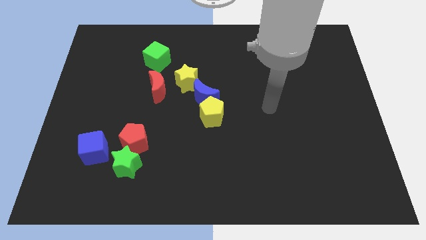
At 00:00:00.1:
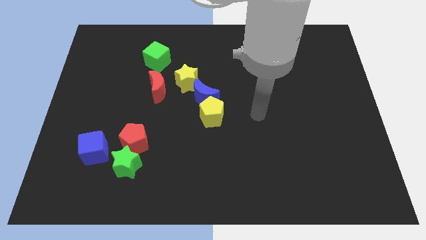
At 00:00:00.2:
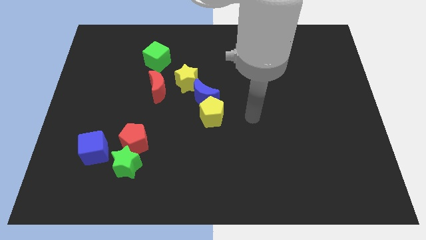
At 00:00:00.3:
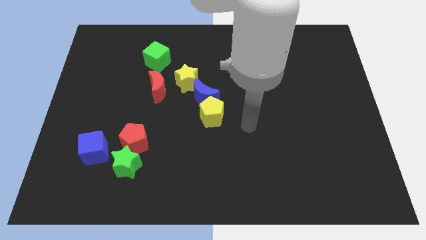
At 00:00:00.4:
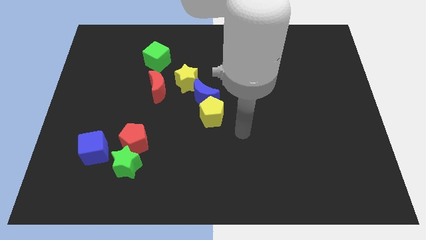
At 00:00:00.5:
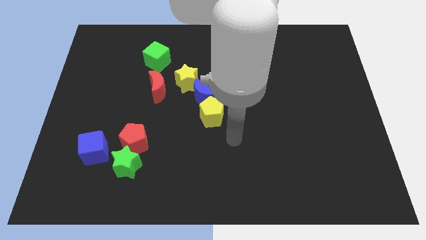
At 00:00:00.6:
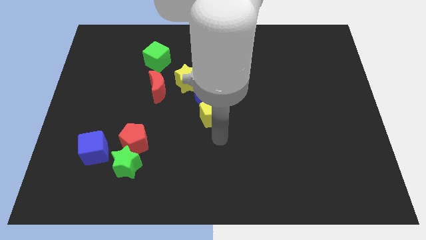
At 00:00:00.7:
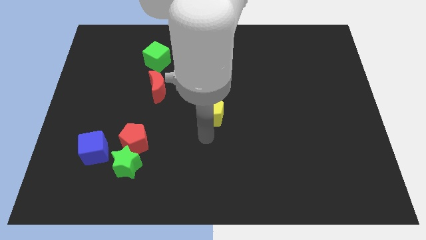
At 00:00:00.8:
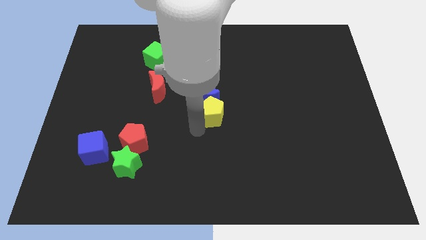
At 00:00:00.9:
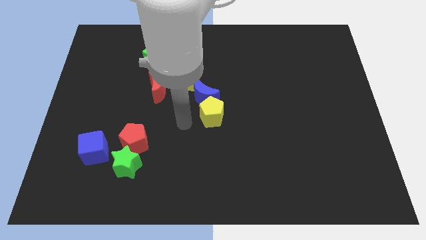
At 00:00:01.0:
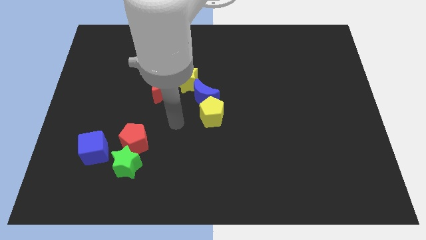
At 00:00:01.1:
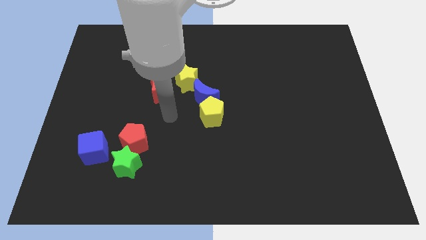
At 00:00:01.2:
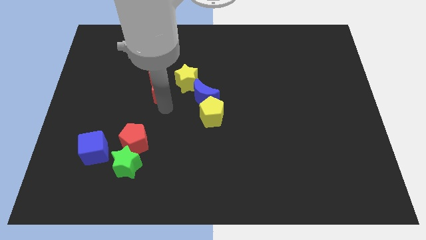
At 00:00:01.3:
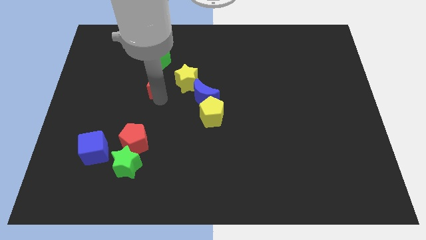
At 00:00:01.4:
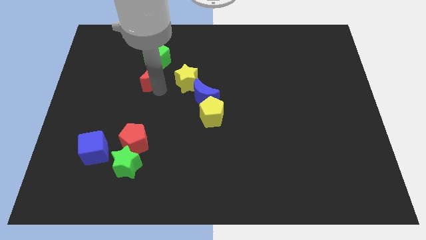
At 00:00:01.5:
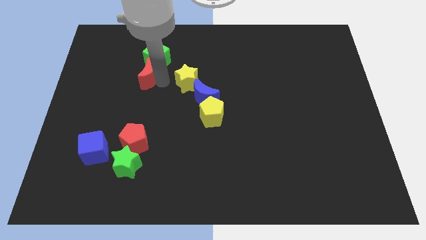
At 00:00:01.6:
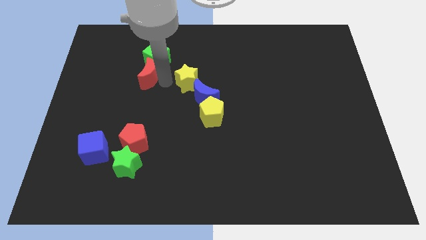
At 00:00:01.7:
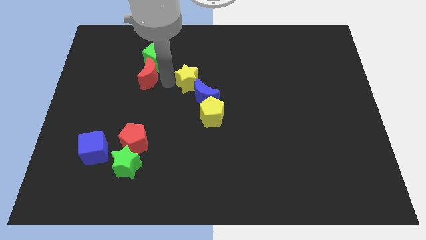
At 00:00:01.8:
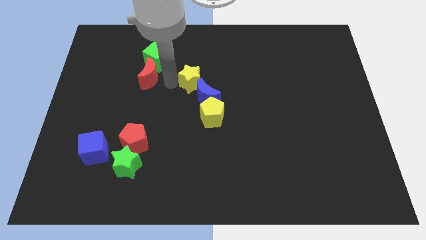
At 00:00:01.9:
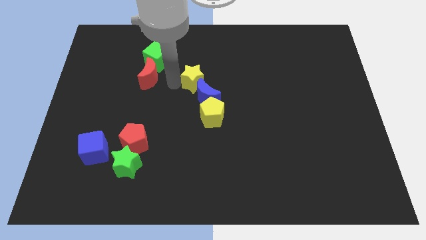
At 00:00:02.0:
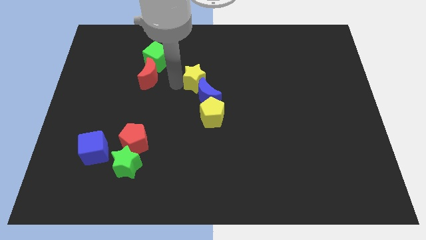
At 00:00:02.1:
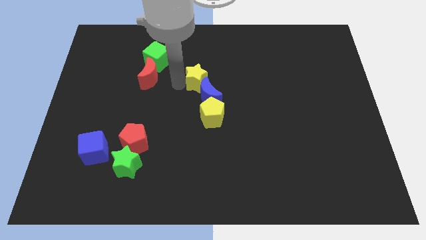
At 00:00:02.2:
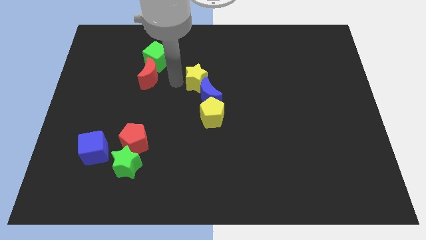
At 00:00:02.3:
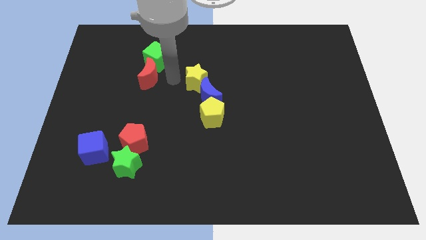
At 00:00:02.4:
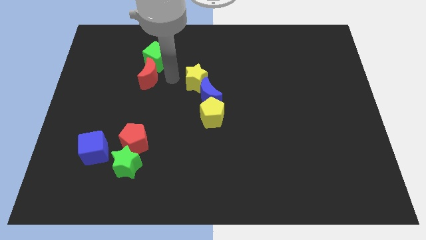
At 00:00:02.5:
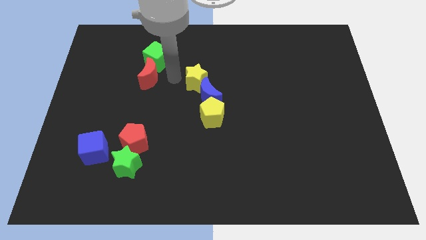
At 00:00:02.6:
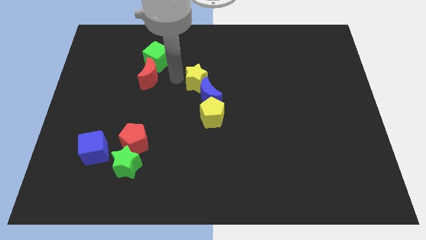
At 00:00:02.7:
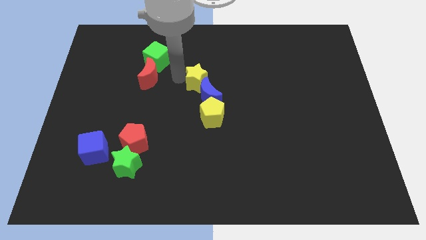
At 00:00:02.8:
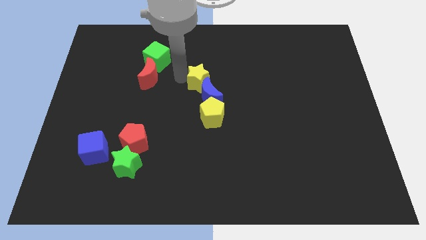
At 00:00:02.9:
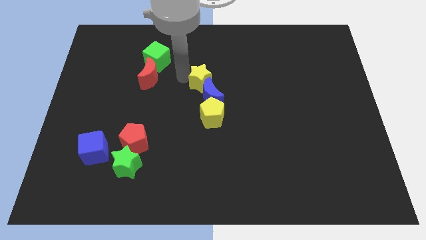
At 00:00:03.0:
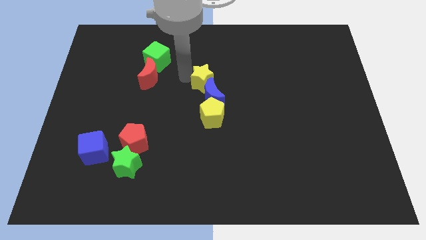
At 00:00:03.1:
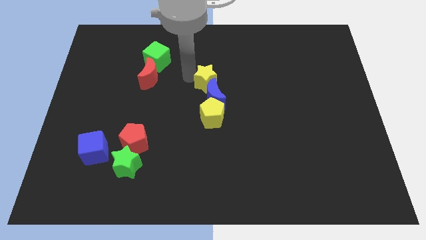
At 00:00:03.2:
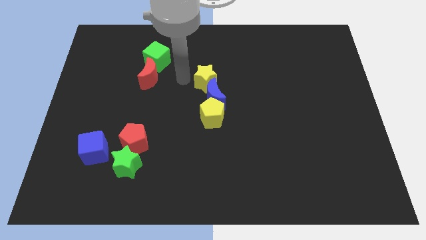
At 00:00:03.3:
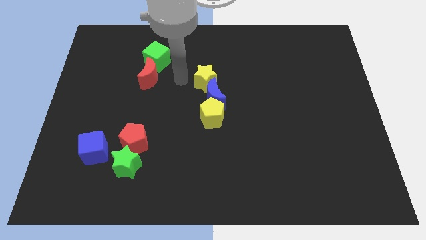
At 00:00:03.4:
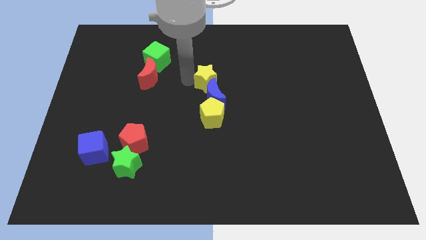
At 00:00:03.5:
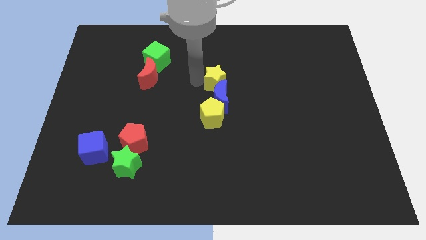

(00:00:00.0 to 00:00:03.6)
push the yellow star somewhat to the right

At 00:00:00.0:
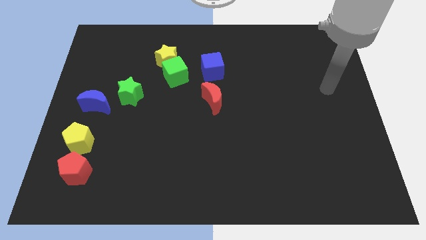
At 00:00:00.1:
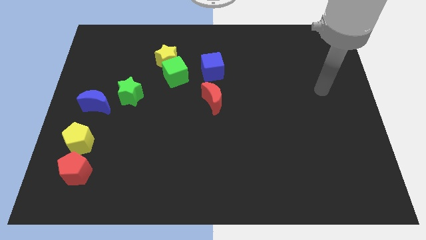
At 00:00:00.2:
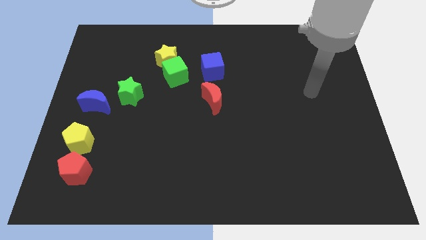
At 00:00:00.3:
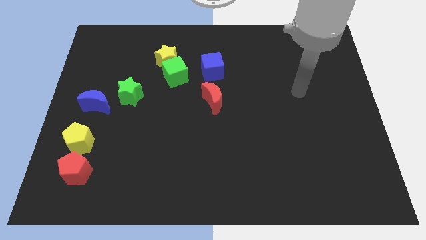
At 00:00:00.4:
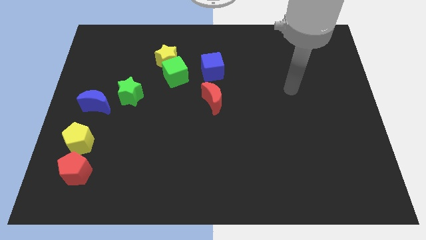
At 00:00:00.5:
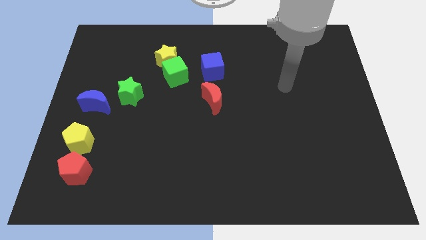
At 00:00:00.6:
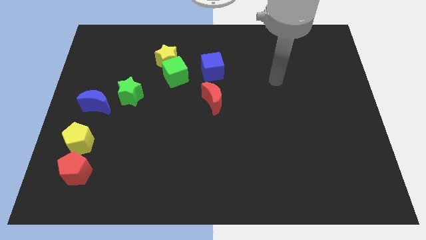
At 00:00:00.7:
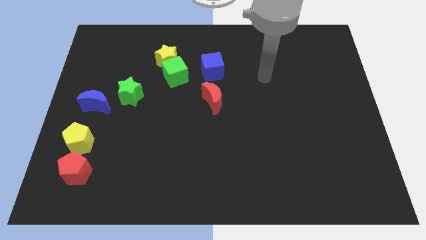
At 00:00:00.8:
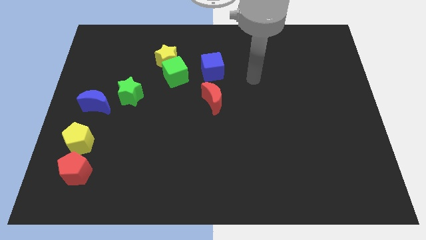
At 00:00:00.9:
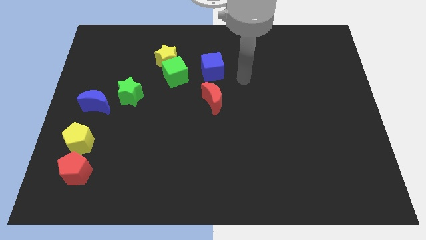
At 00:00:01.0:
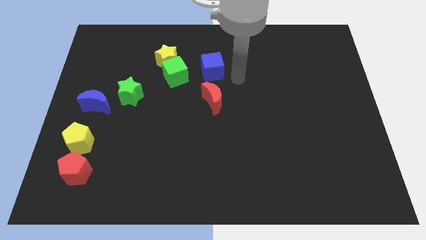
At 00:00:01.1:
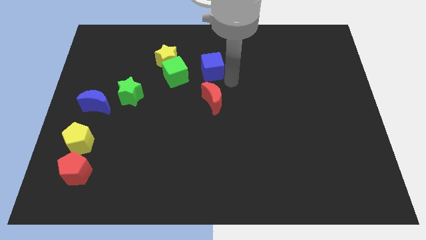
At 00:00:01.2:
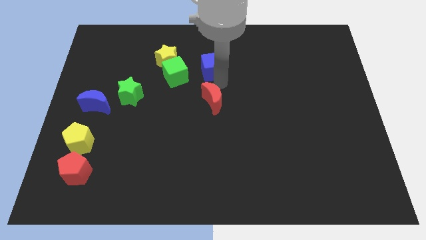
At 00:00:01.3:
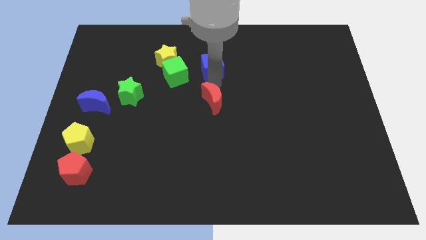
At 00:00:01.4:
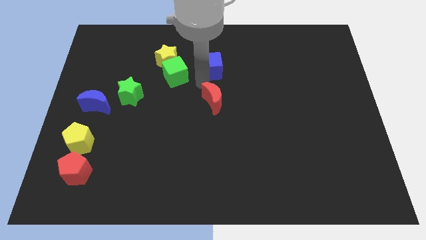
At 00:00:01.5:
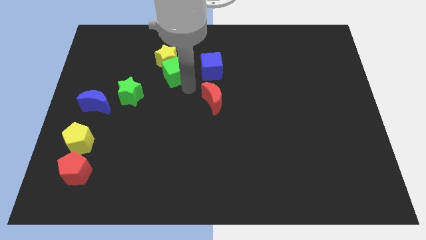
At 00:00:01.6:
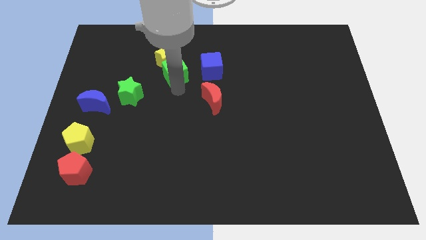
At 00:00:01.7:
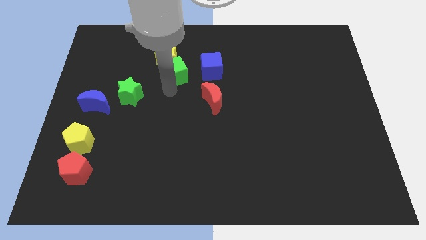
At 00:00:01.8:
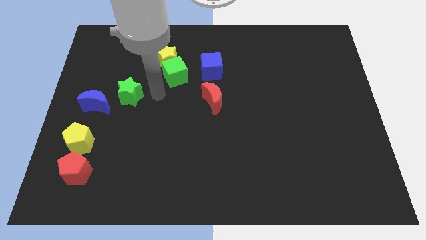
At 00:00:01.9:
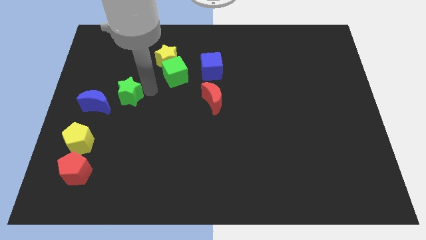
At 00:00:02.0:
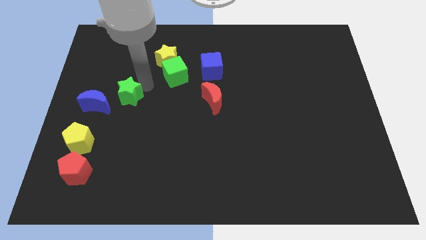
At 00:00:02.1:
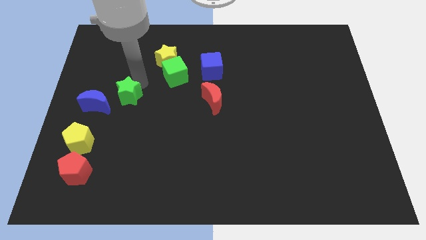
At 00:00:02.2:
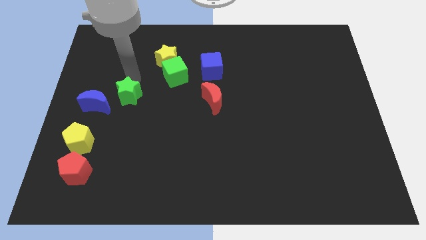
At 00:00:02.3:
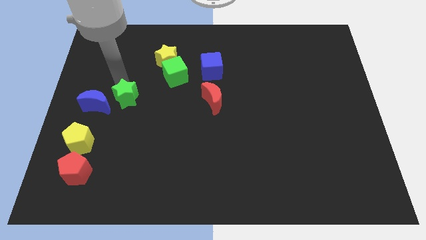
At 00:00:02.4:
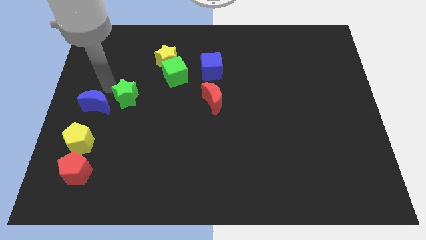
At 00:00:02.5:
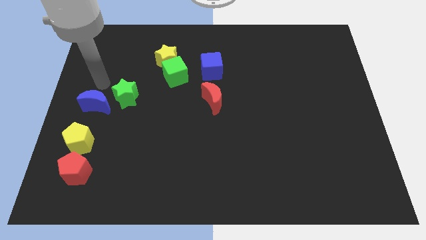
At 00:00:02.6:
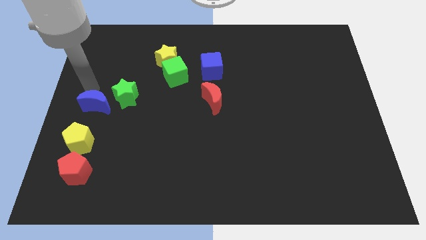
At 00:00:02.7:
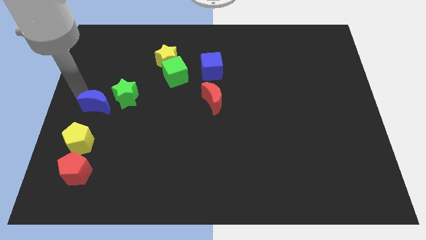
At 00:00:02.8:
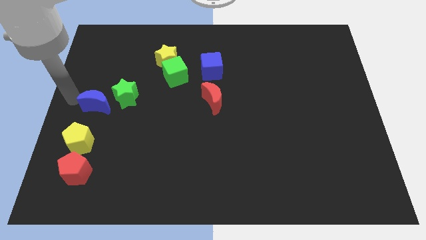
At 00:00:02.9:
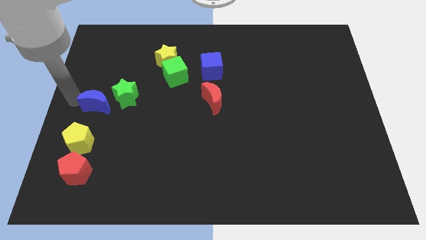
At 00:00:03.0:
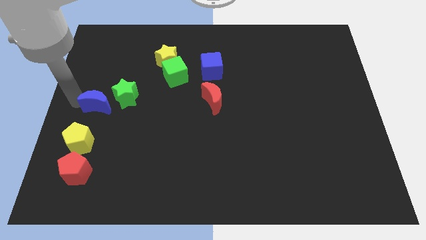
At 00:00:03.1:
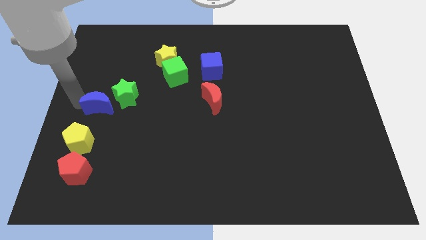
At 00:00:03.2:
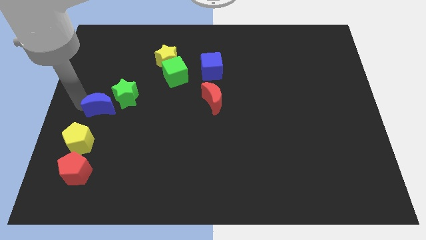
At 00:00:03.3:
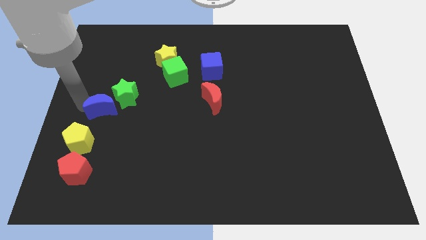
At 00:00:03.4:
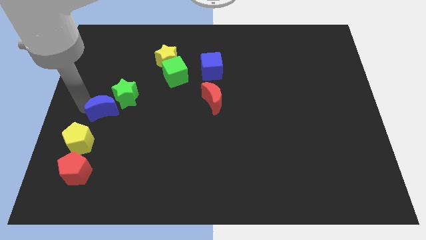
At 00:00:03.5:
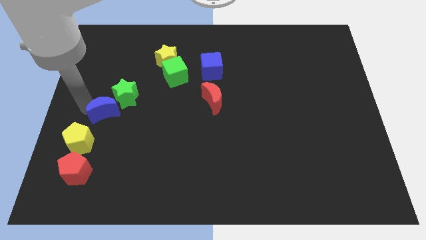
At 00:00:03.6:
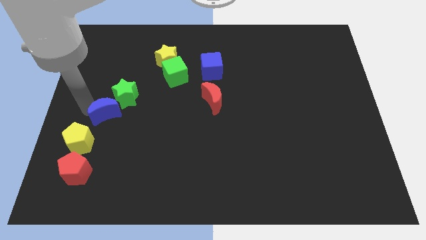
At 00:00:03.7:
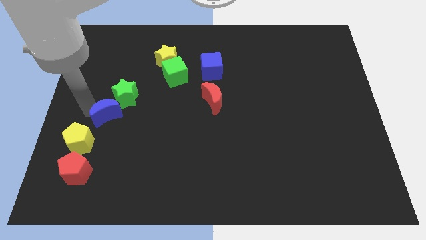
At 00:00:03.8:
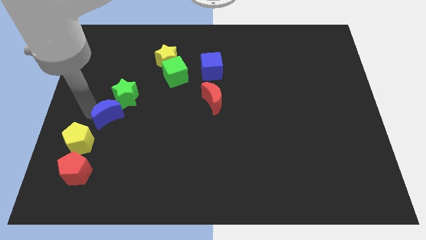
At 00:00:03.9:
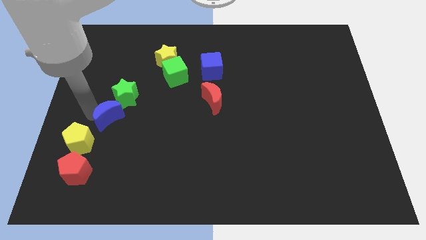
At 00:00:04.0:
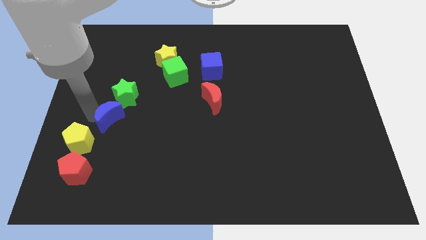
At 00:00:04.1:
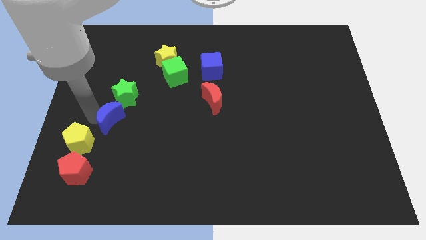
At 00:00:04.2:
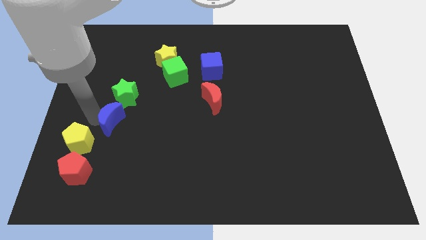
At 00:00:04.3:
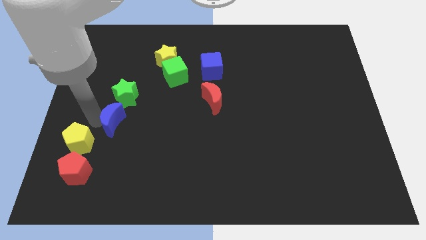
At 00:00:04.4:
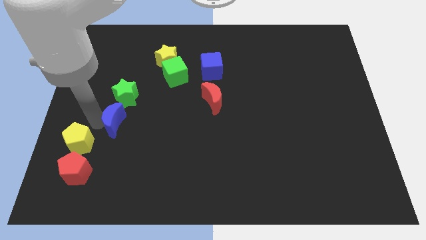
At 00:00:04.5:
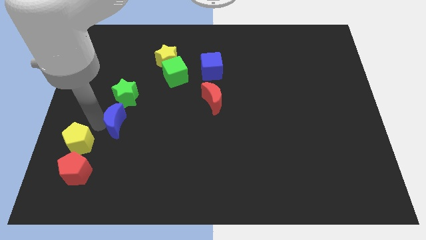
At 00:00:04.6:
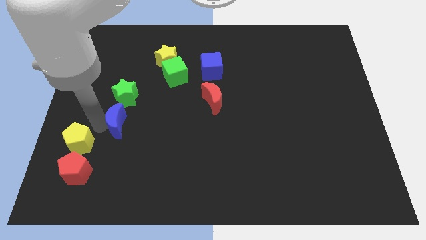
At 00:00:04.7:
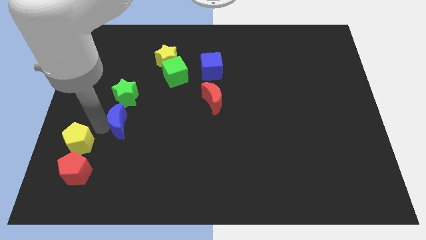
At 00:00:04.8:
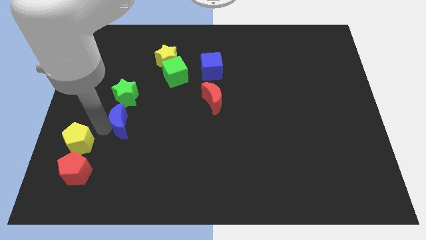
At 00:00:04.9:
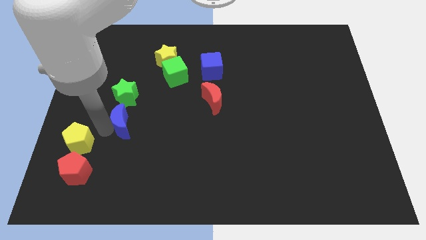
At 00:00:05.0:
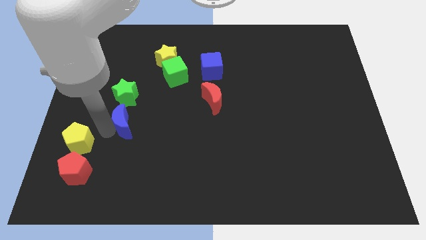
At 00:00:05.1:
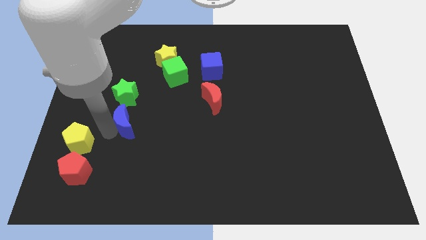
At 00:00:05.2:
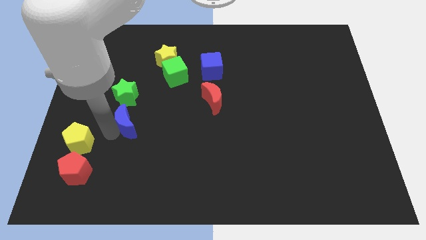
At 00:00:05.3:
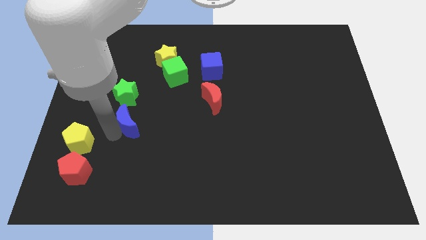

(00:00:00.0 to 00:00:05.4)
slightly slide the blue moon right
